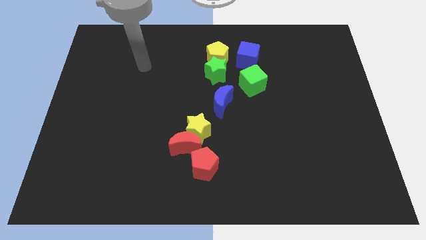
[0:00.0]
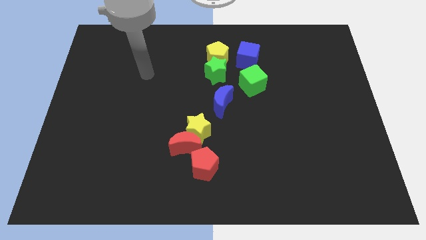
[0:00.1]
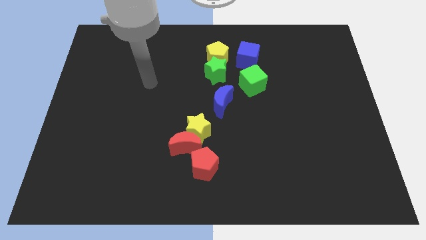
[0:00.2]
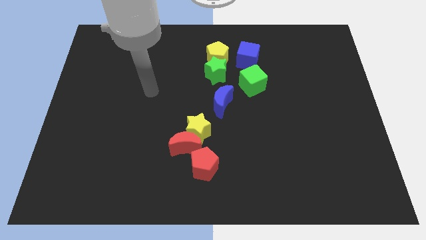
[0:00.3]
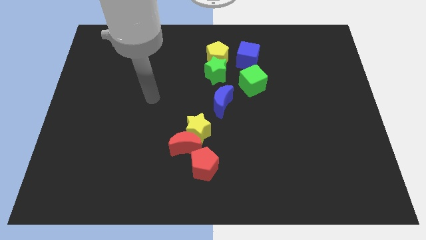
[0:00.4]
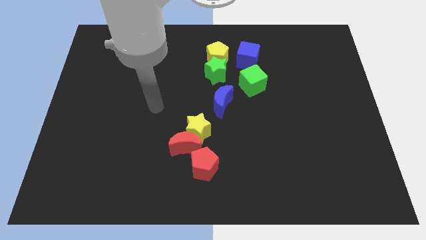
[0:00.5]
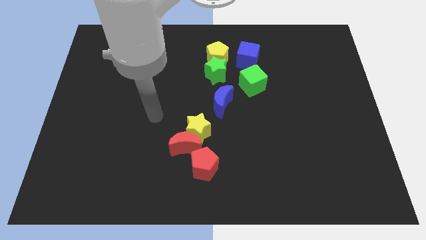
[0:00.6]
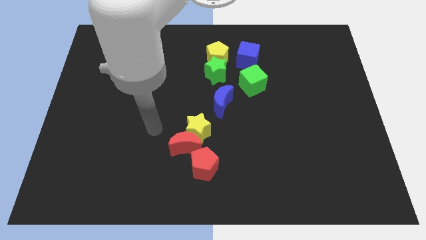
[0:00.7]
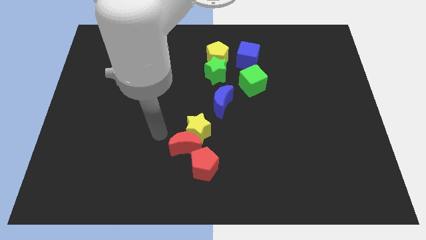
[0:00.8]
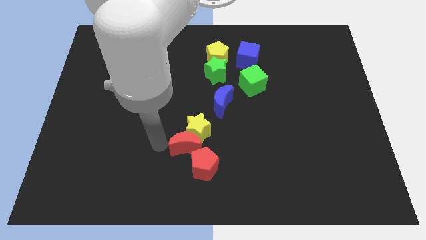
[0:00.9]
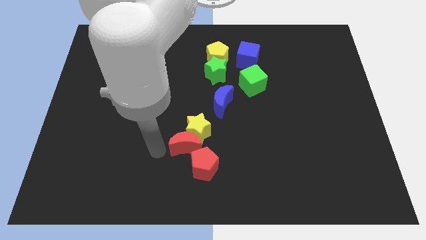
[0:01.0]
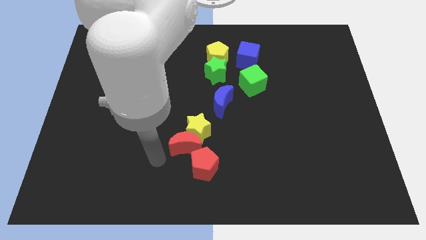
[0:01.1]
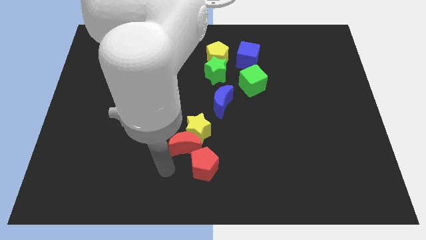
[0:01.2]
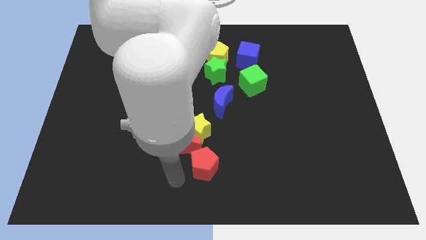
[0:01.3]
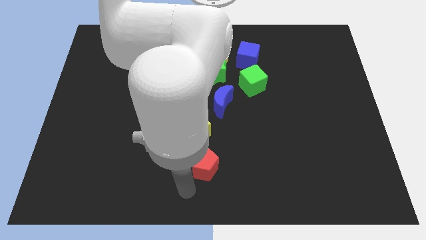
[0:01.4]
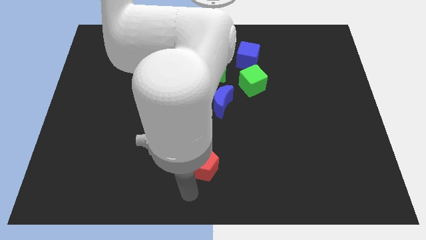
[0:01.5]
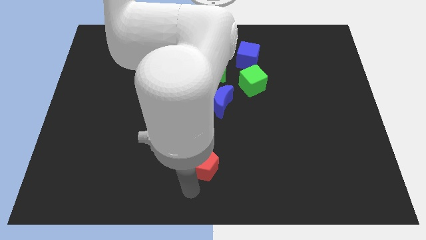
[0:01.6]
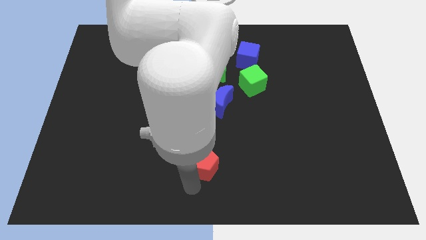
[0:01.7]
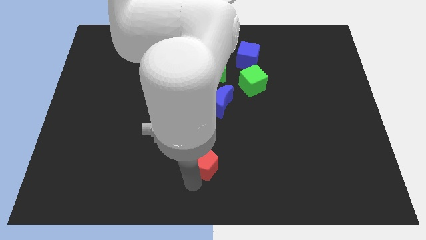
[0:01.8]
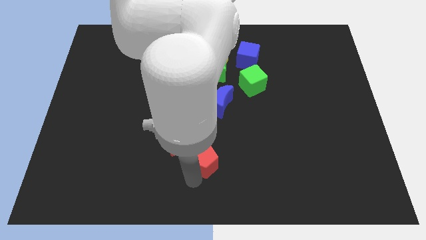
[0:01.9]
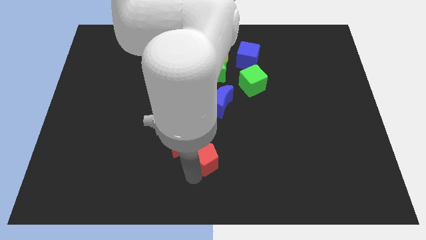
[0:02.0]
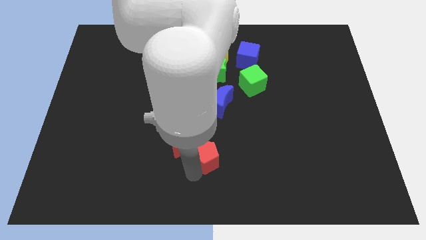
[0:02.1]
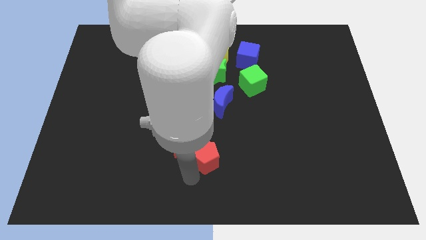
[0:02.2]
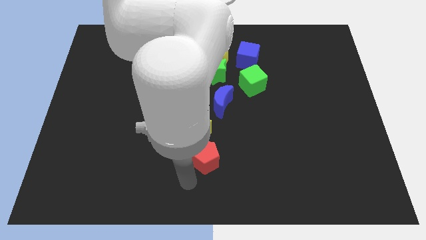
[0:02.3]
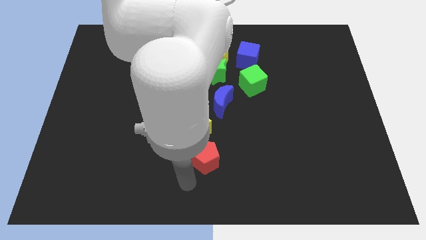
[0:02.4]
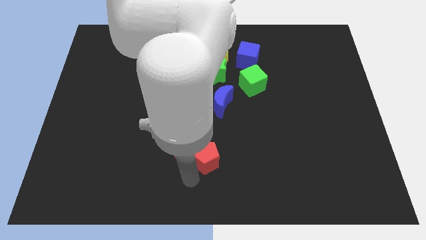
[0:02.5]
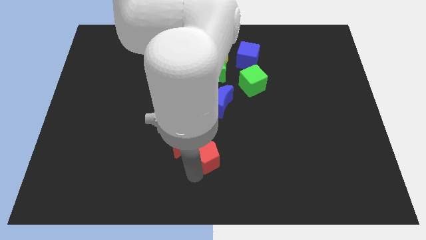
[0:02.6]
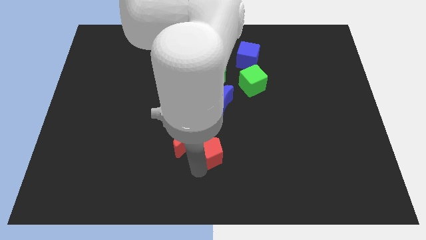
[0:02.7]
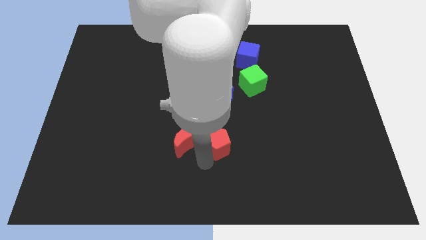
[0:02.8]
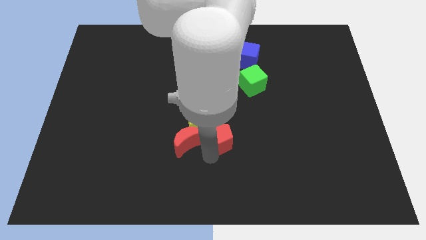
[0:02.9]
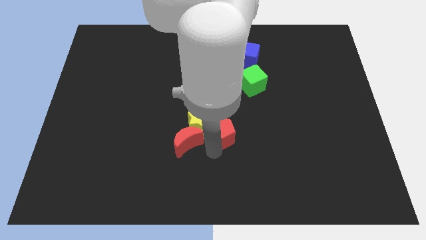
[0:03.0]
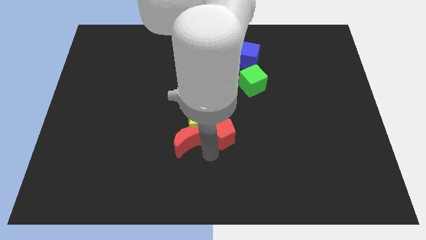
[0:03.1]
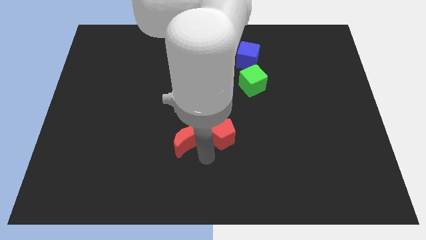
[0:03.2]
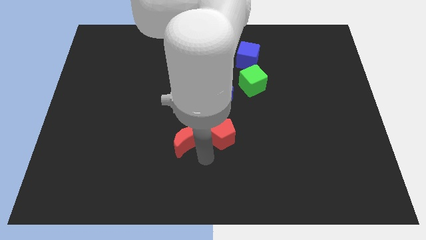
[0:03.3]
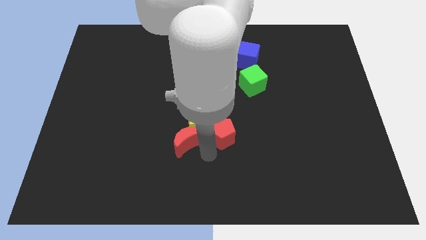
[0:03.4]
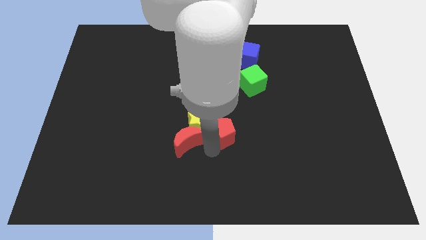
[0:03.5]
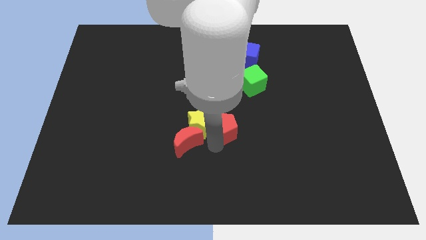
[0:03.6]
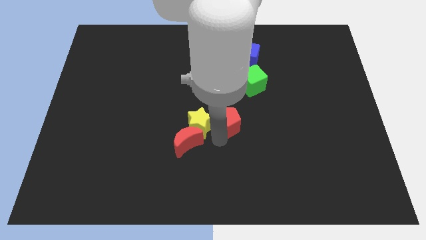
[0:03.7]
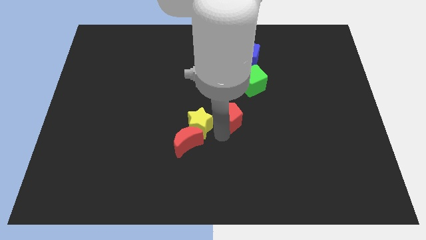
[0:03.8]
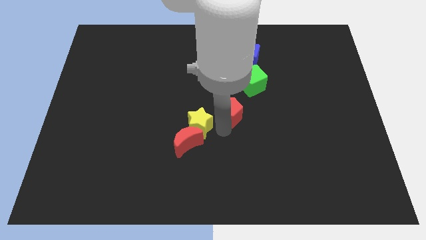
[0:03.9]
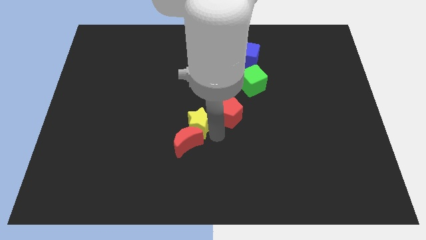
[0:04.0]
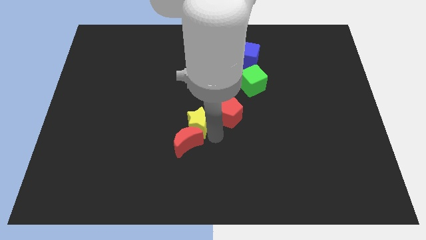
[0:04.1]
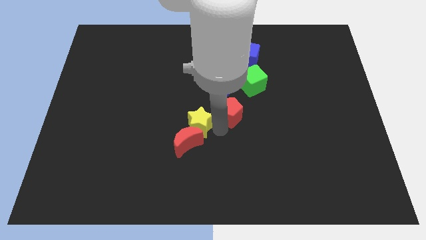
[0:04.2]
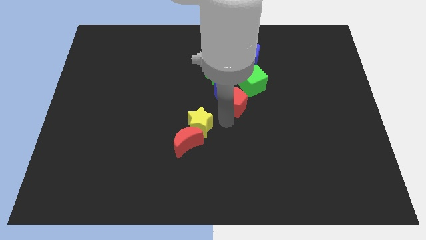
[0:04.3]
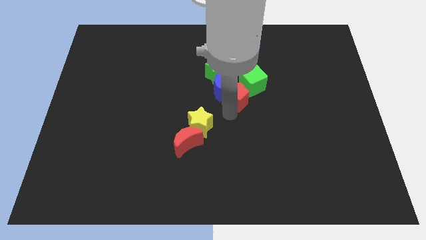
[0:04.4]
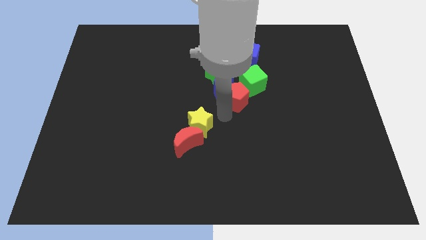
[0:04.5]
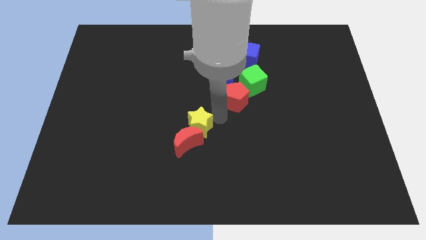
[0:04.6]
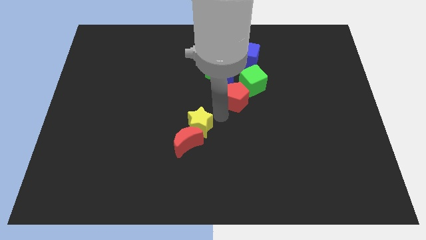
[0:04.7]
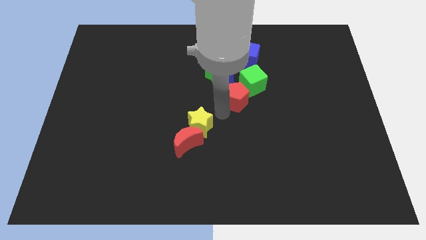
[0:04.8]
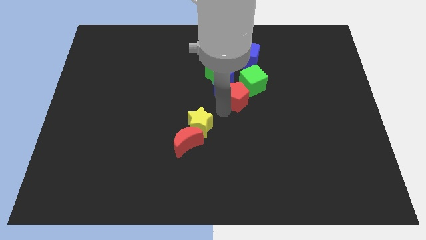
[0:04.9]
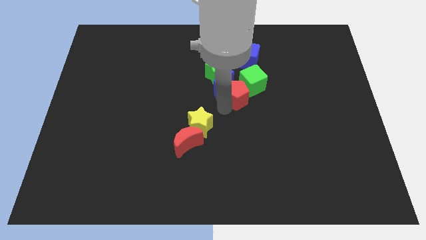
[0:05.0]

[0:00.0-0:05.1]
put the red pentagon to the green cube

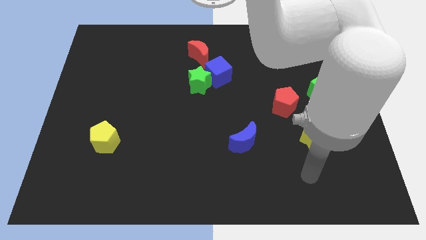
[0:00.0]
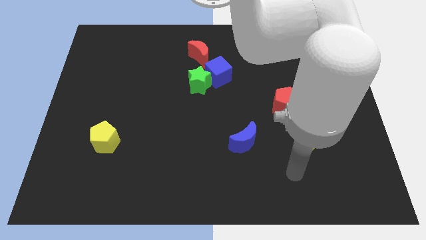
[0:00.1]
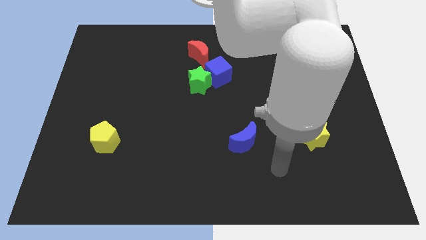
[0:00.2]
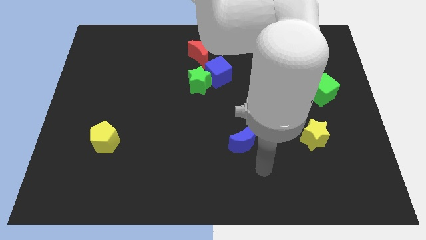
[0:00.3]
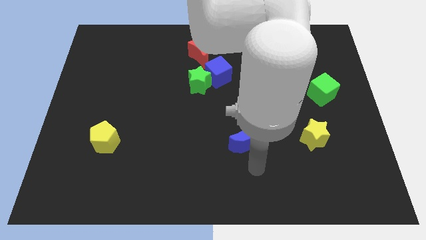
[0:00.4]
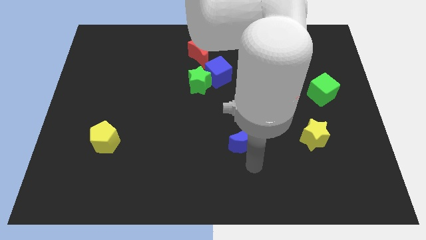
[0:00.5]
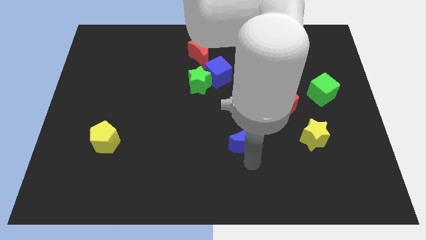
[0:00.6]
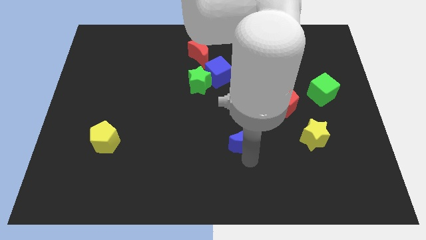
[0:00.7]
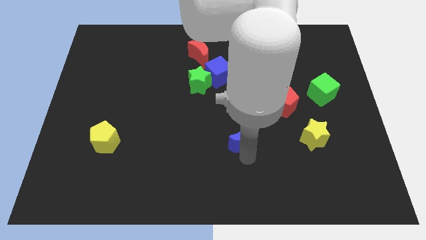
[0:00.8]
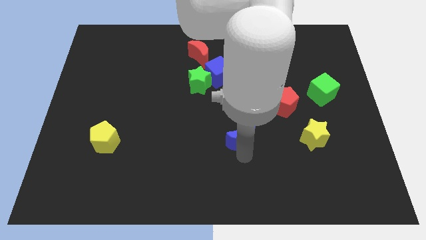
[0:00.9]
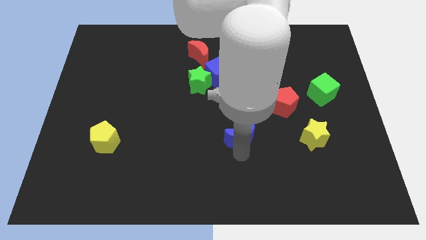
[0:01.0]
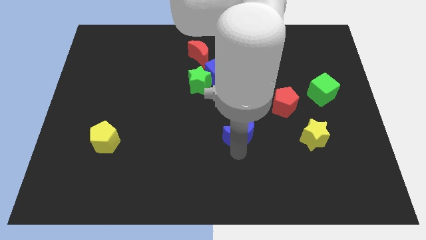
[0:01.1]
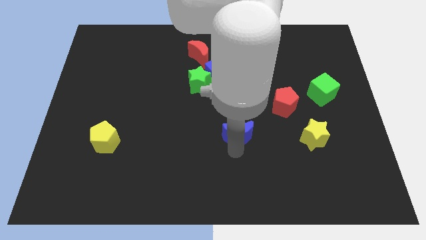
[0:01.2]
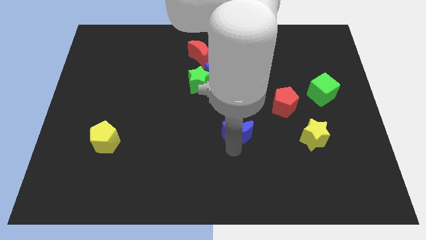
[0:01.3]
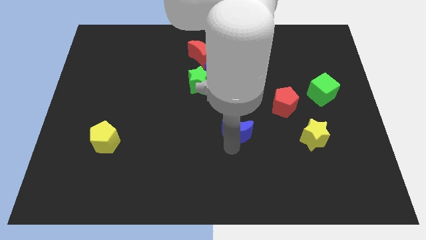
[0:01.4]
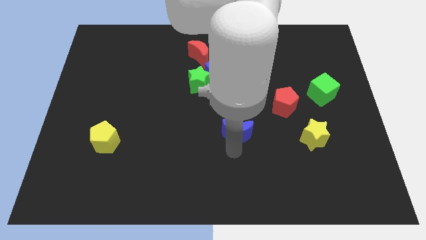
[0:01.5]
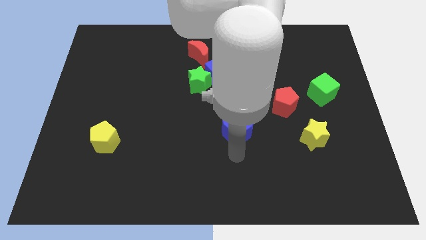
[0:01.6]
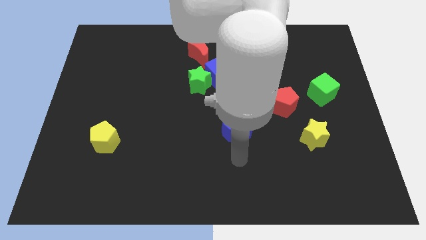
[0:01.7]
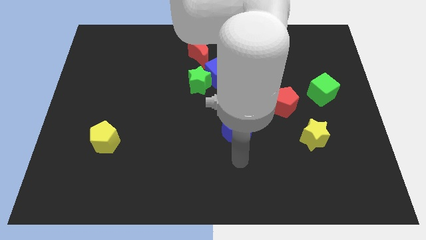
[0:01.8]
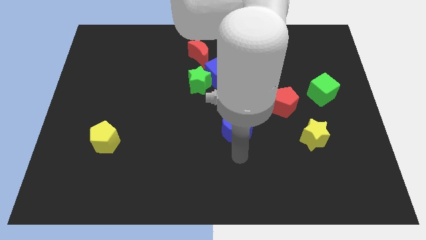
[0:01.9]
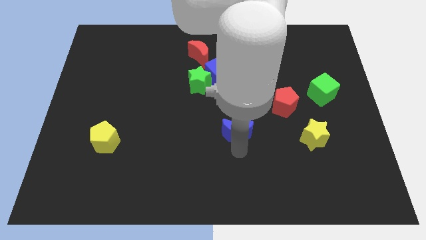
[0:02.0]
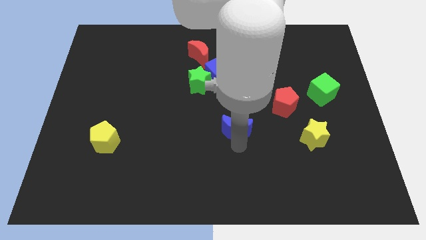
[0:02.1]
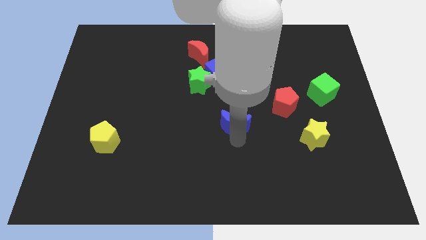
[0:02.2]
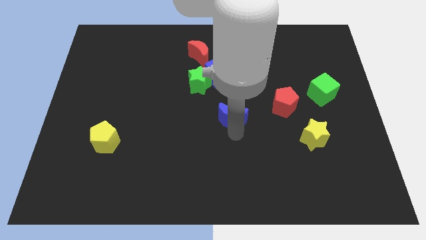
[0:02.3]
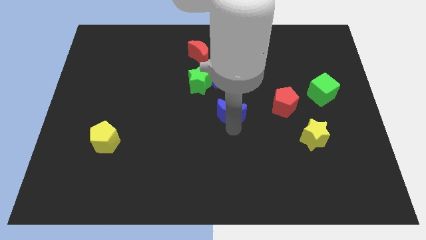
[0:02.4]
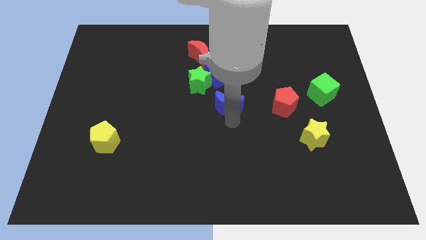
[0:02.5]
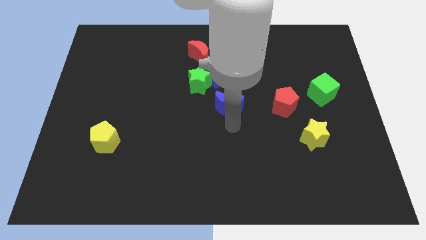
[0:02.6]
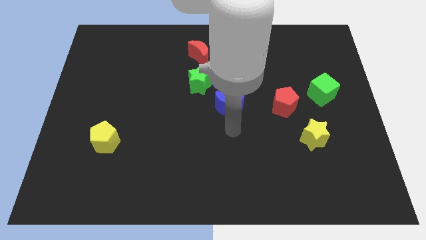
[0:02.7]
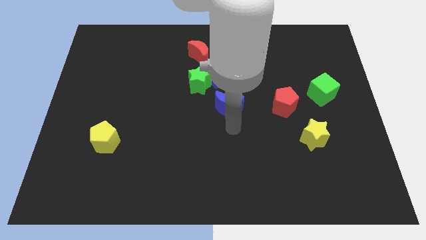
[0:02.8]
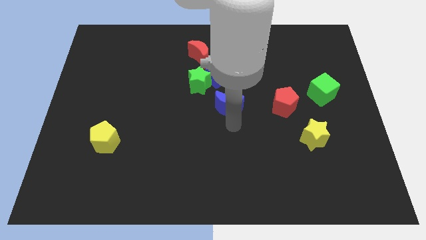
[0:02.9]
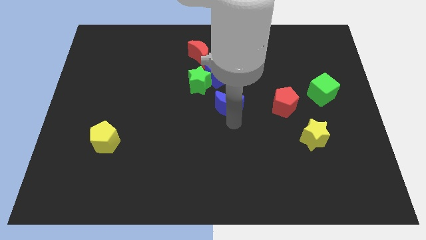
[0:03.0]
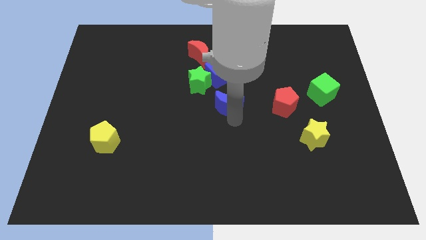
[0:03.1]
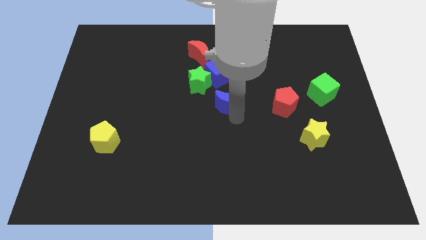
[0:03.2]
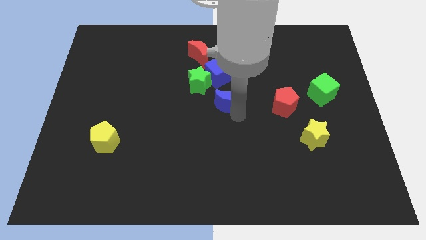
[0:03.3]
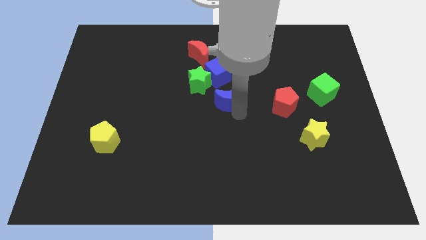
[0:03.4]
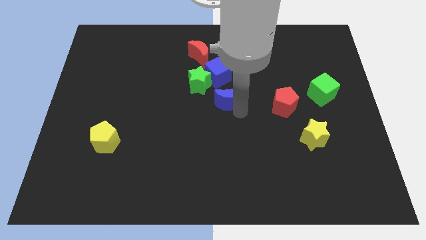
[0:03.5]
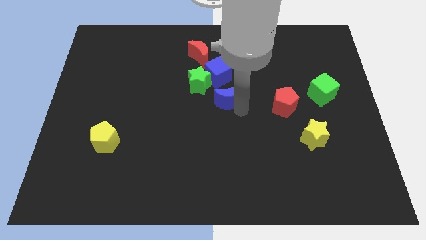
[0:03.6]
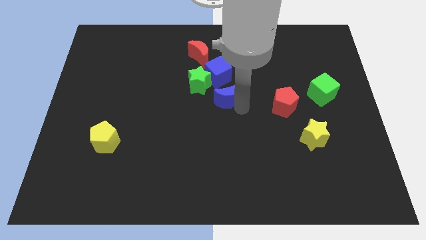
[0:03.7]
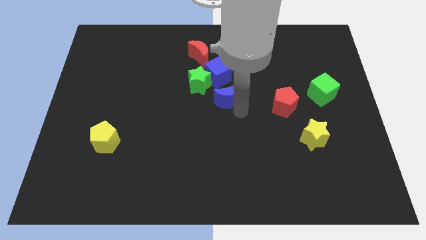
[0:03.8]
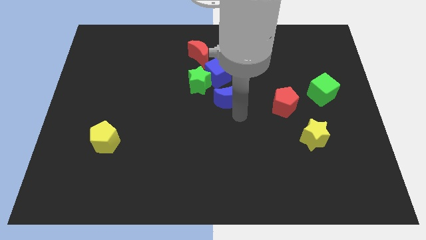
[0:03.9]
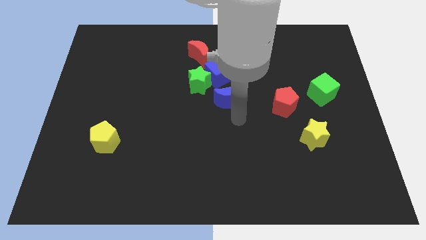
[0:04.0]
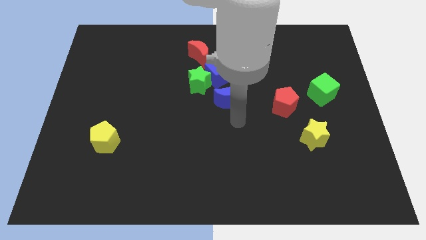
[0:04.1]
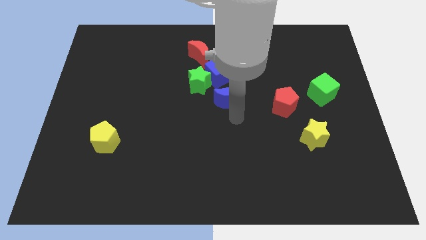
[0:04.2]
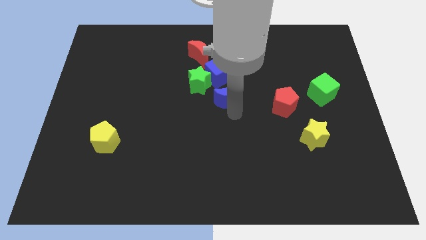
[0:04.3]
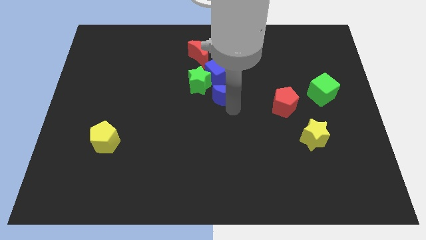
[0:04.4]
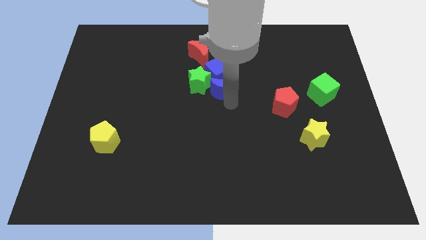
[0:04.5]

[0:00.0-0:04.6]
move the blue moon towards the blue cube
